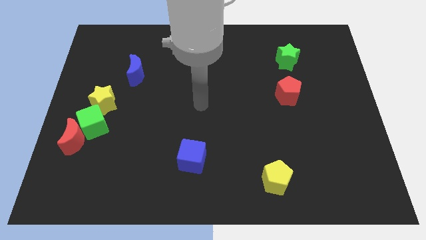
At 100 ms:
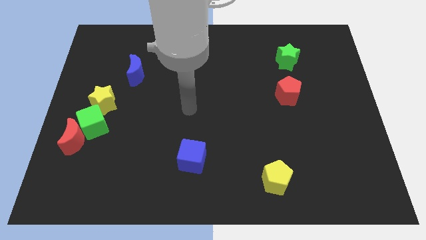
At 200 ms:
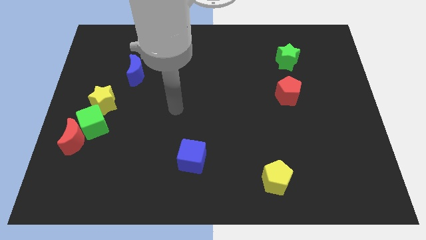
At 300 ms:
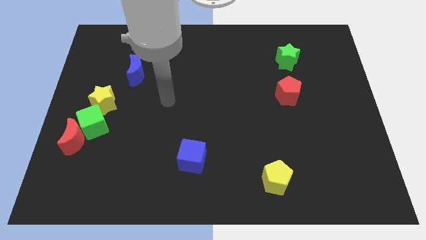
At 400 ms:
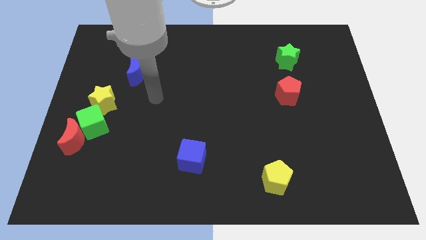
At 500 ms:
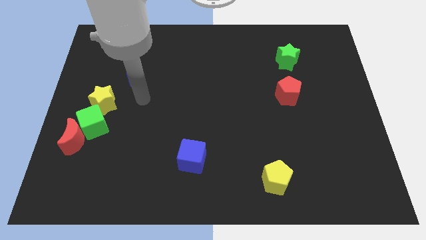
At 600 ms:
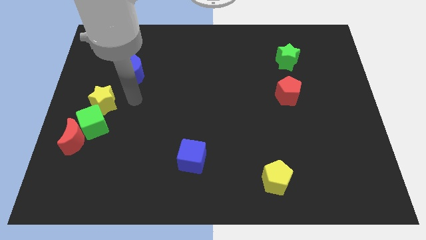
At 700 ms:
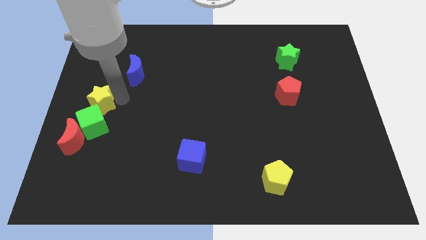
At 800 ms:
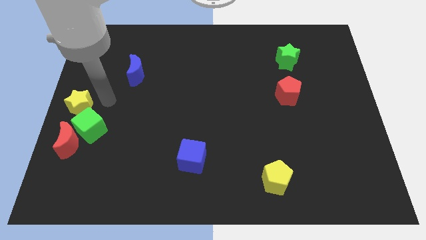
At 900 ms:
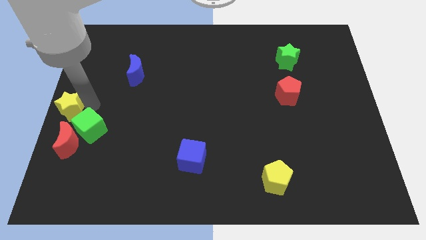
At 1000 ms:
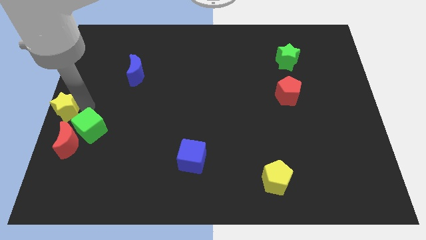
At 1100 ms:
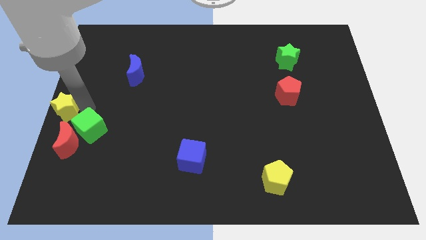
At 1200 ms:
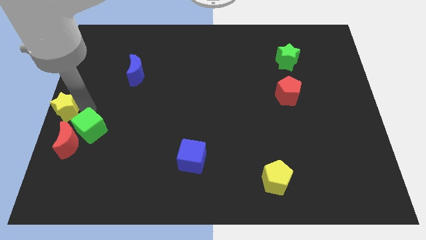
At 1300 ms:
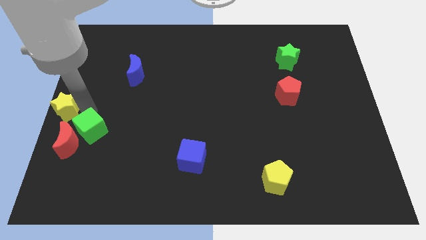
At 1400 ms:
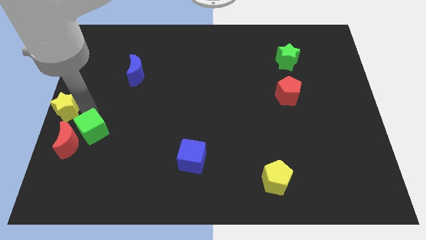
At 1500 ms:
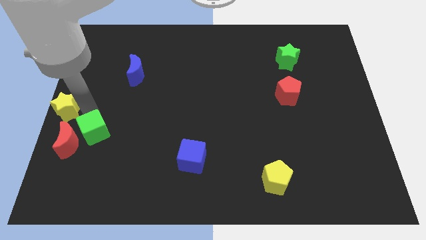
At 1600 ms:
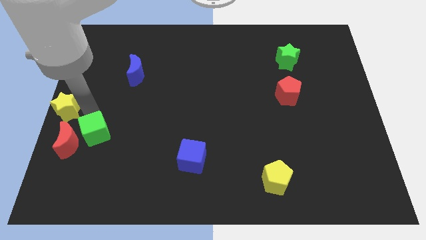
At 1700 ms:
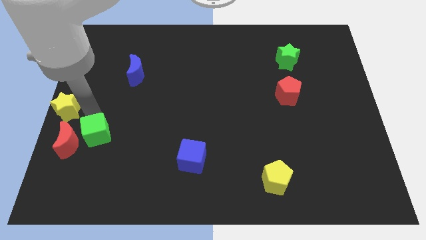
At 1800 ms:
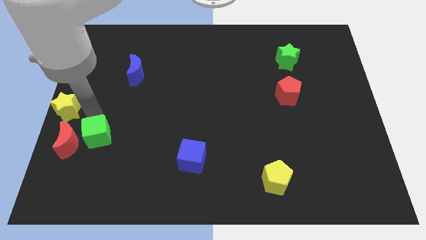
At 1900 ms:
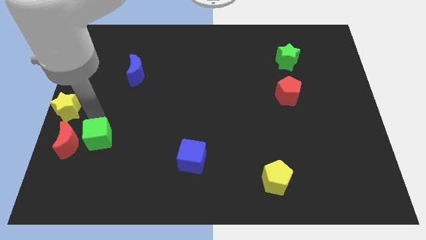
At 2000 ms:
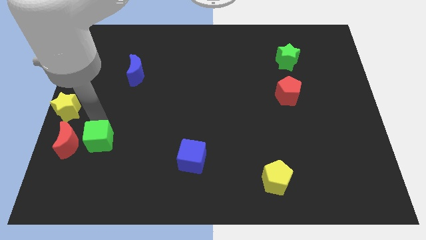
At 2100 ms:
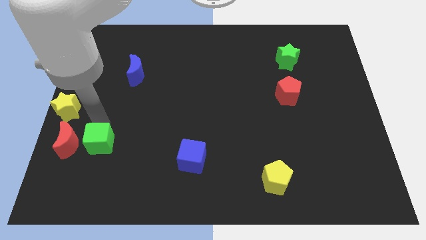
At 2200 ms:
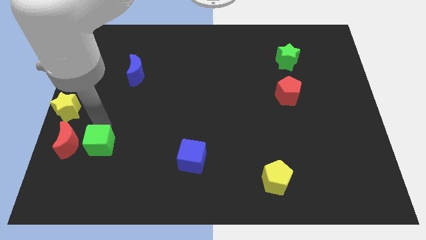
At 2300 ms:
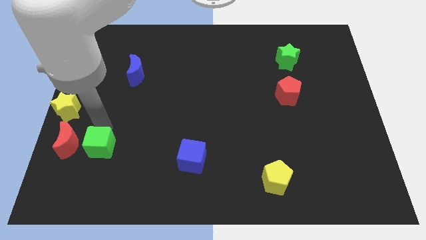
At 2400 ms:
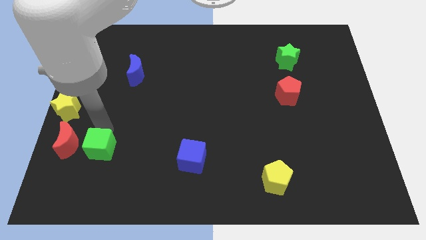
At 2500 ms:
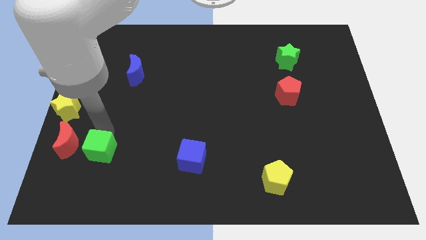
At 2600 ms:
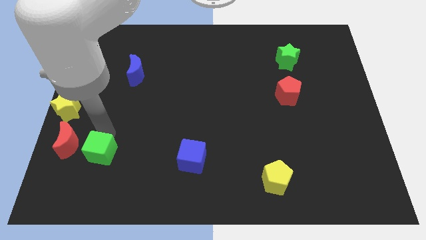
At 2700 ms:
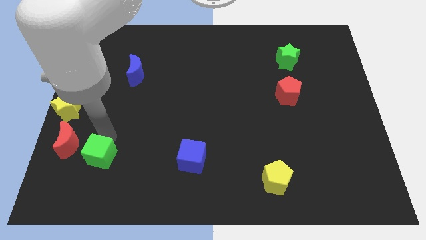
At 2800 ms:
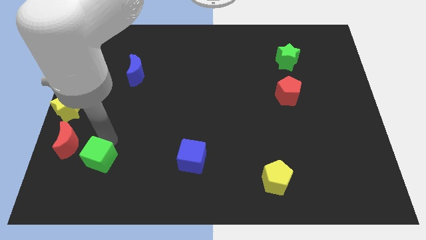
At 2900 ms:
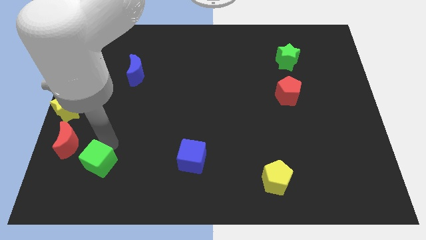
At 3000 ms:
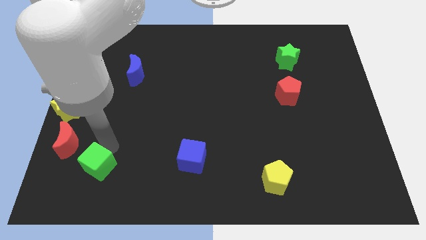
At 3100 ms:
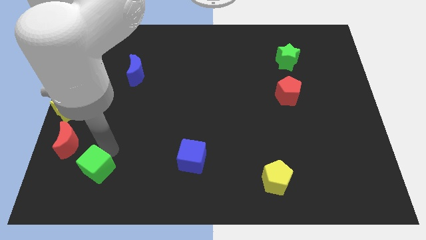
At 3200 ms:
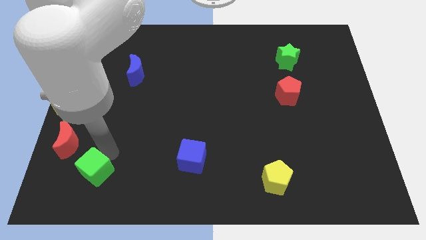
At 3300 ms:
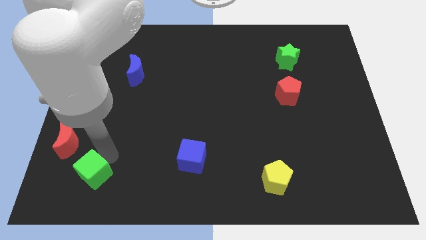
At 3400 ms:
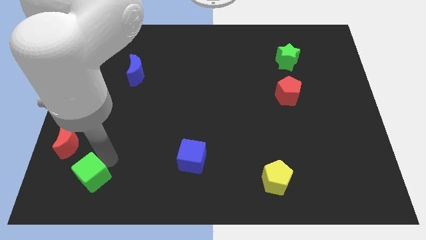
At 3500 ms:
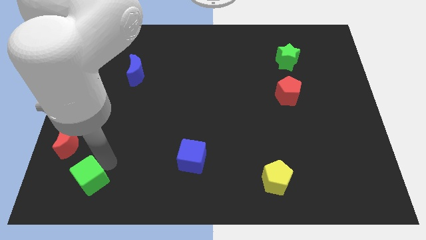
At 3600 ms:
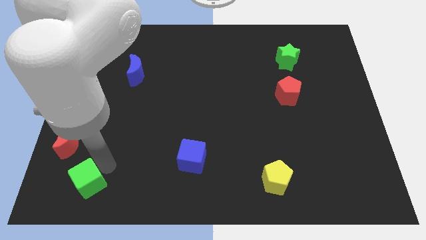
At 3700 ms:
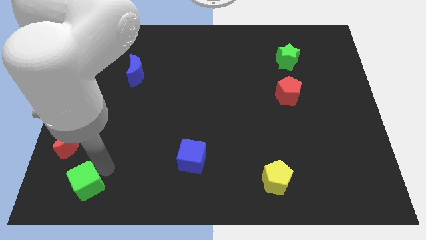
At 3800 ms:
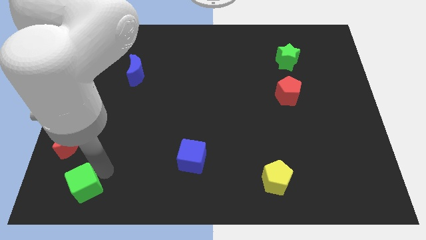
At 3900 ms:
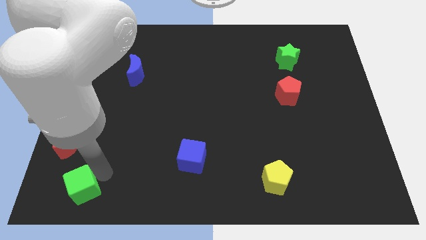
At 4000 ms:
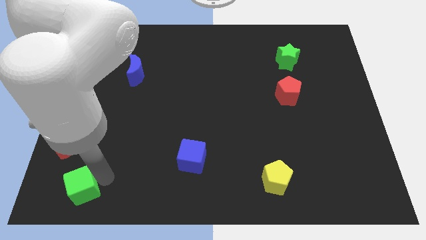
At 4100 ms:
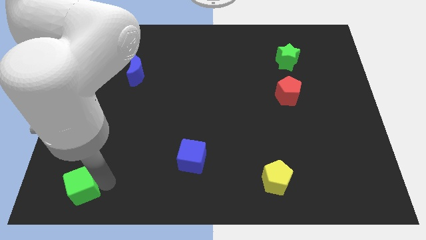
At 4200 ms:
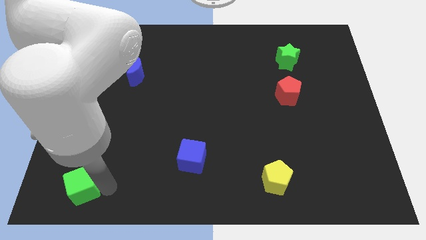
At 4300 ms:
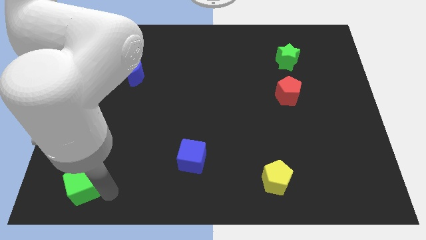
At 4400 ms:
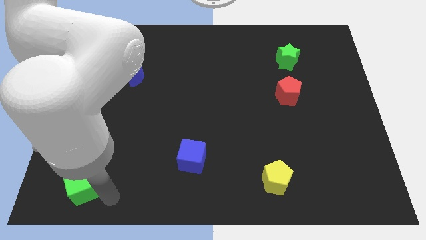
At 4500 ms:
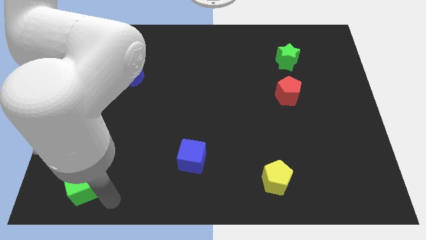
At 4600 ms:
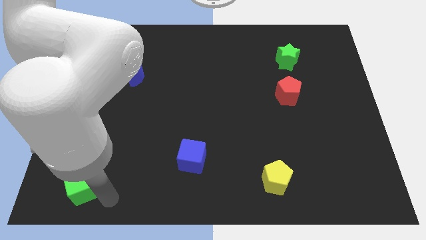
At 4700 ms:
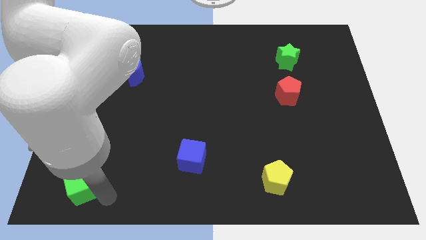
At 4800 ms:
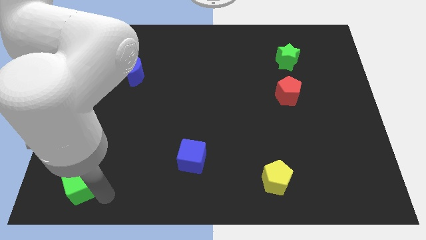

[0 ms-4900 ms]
move the green cube to the bottom left

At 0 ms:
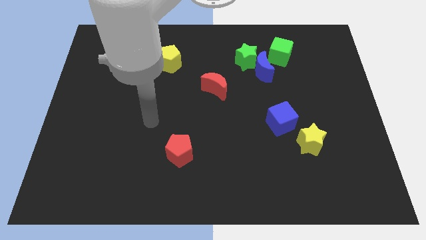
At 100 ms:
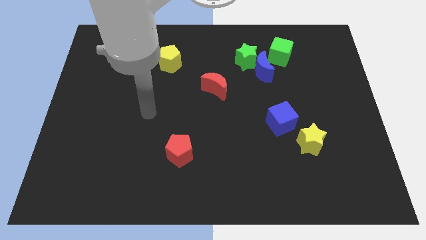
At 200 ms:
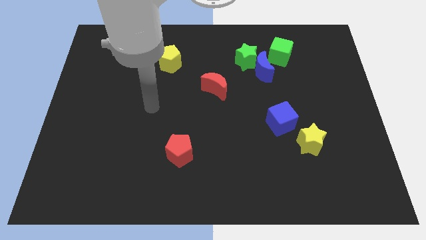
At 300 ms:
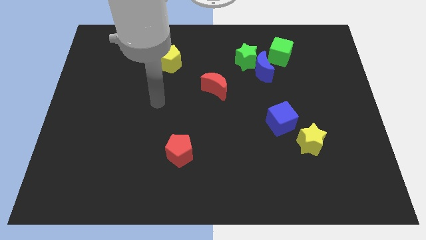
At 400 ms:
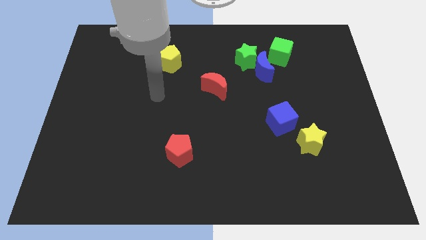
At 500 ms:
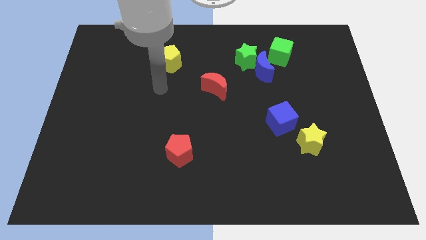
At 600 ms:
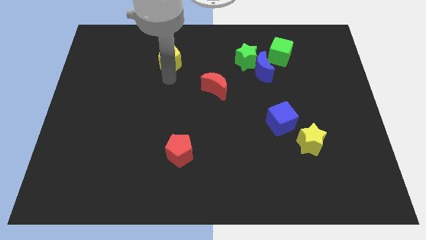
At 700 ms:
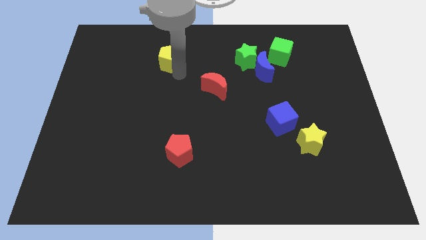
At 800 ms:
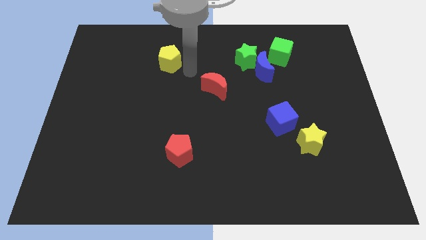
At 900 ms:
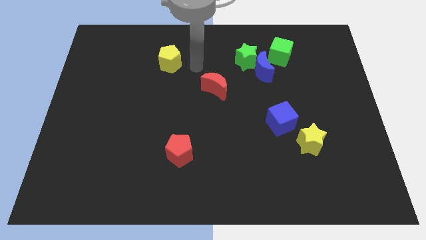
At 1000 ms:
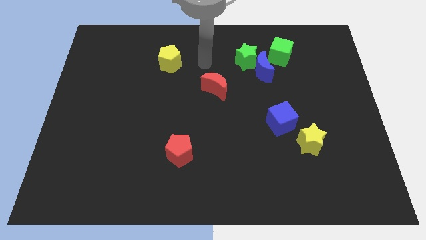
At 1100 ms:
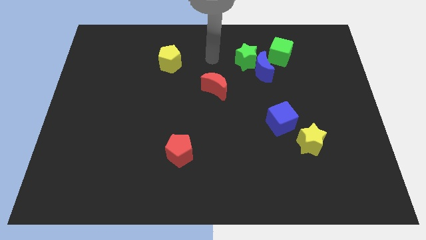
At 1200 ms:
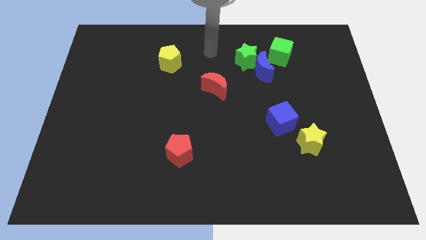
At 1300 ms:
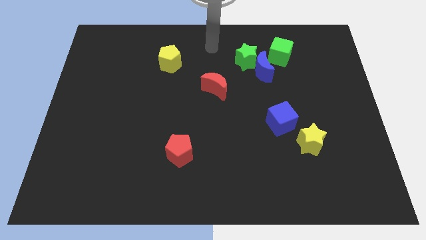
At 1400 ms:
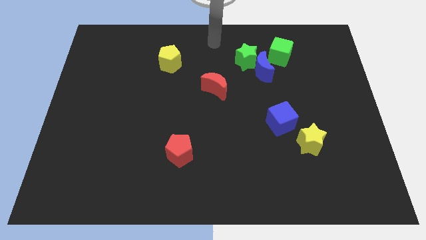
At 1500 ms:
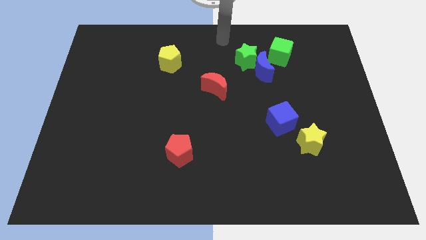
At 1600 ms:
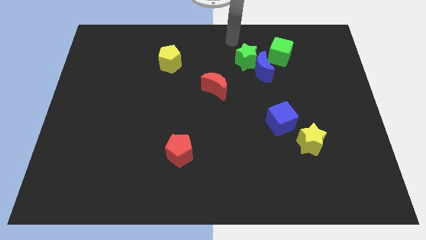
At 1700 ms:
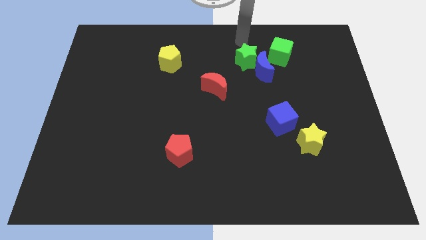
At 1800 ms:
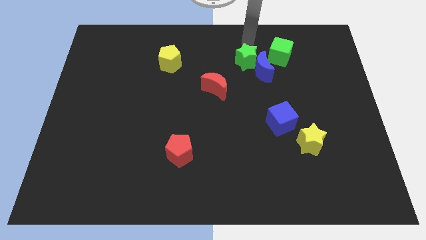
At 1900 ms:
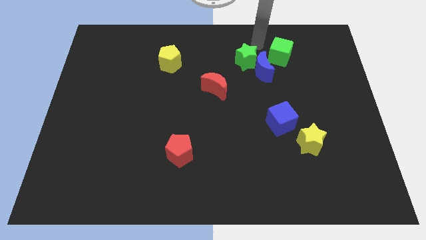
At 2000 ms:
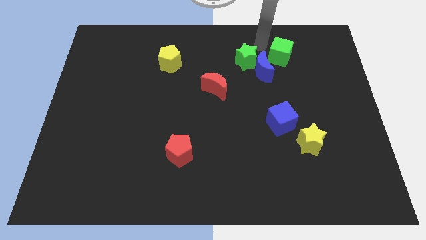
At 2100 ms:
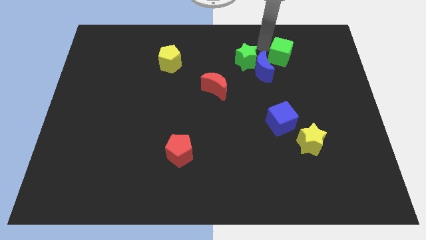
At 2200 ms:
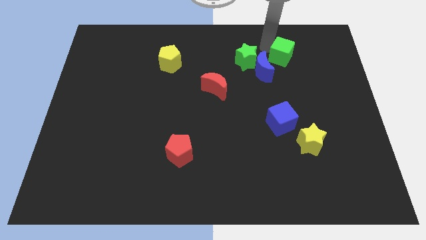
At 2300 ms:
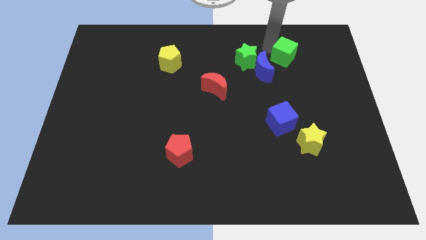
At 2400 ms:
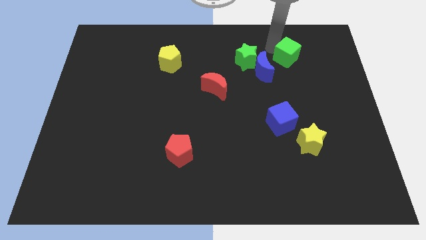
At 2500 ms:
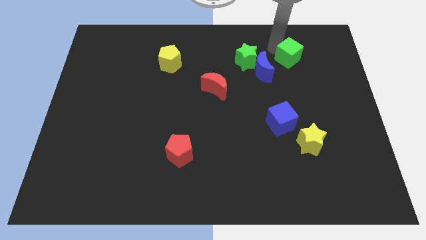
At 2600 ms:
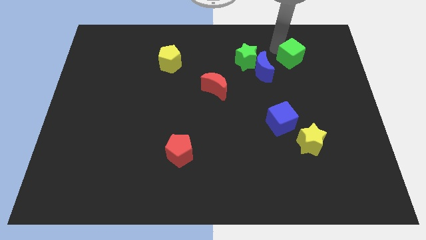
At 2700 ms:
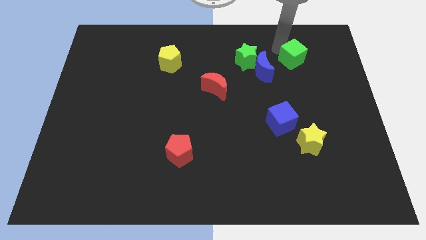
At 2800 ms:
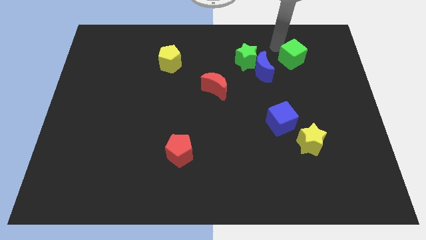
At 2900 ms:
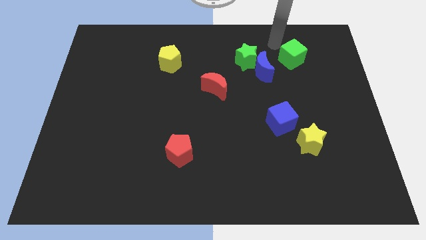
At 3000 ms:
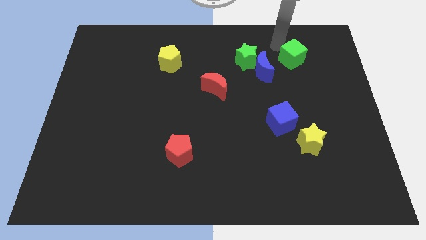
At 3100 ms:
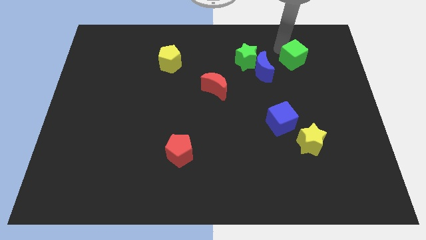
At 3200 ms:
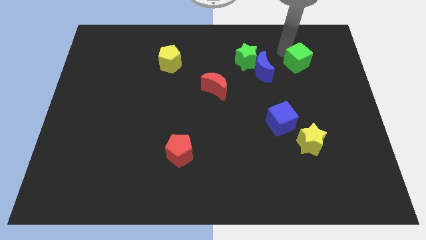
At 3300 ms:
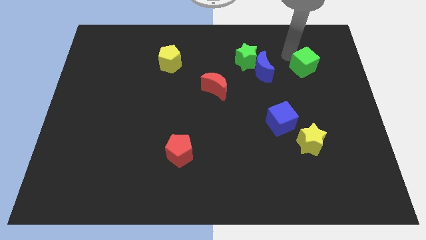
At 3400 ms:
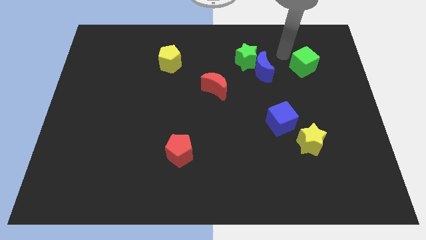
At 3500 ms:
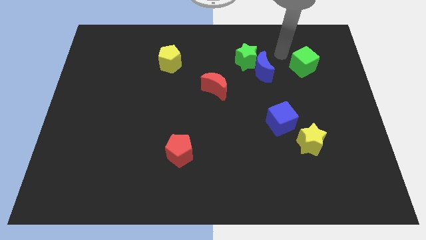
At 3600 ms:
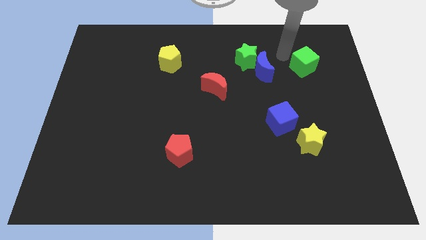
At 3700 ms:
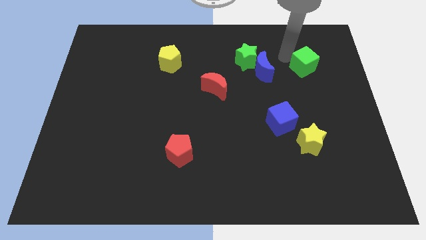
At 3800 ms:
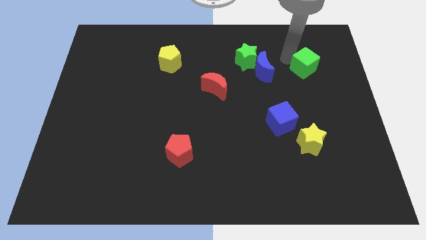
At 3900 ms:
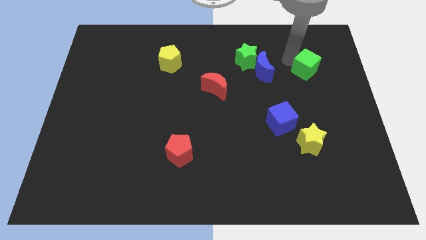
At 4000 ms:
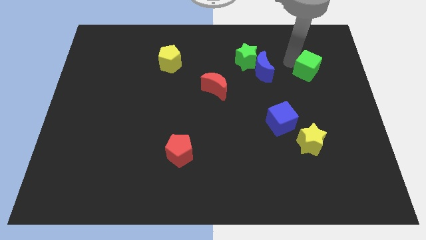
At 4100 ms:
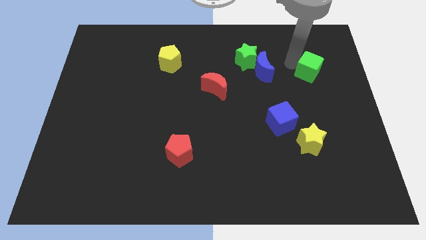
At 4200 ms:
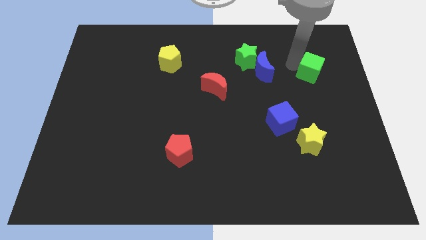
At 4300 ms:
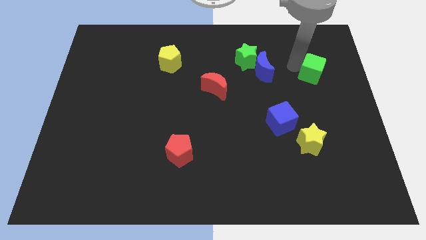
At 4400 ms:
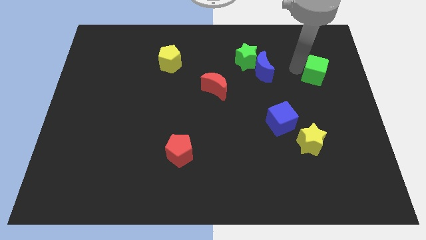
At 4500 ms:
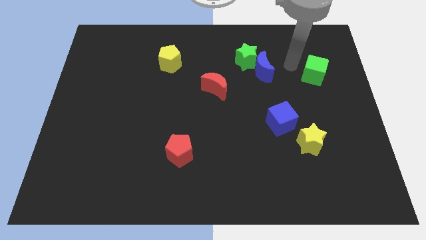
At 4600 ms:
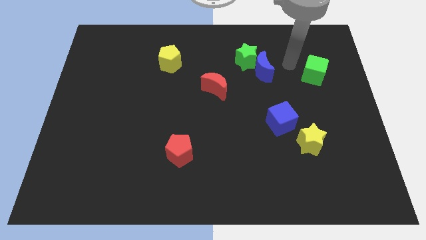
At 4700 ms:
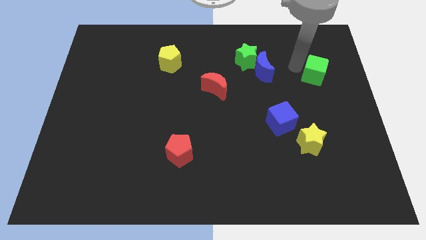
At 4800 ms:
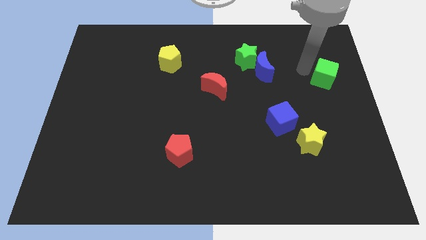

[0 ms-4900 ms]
push the green cube to the center right
